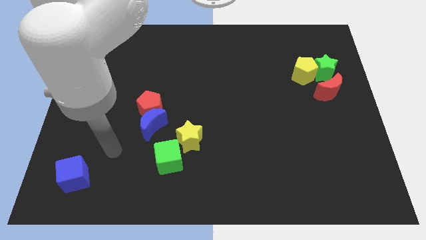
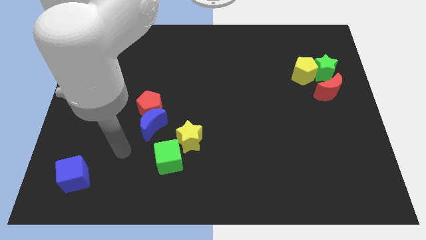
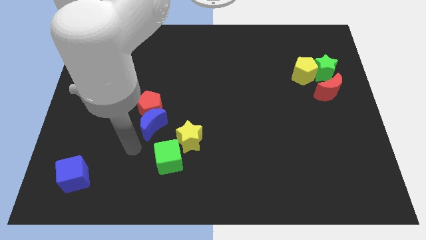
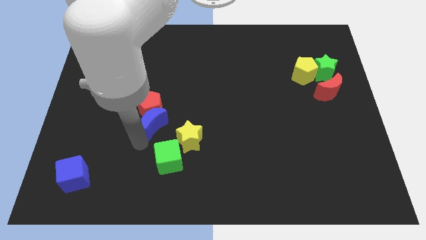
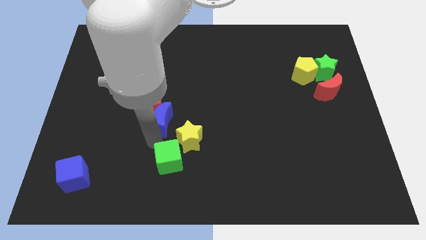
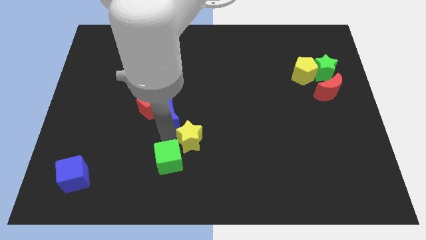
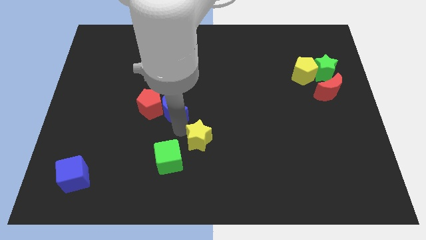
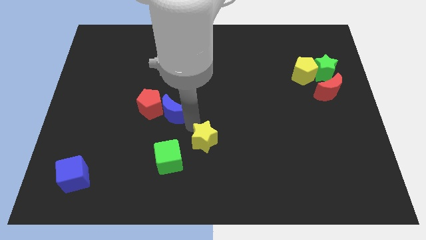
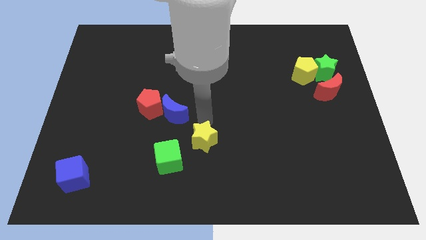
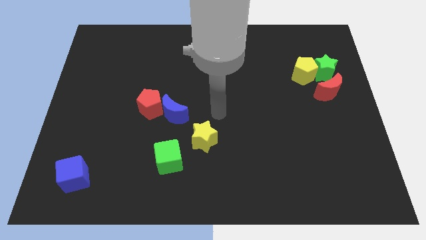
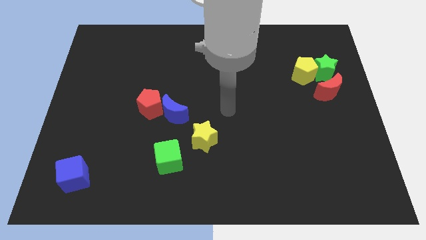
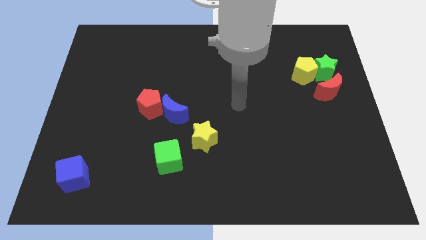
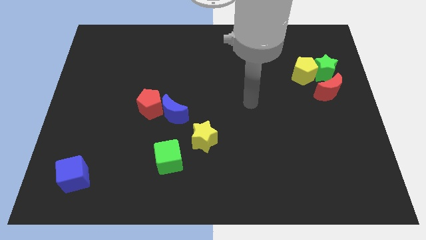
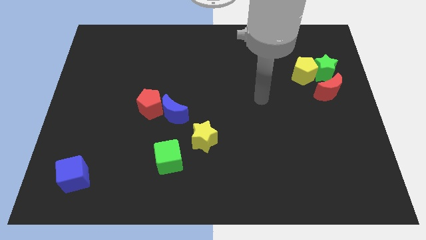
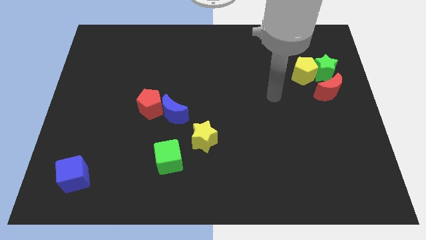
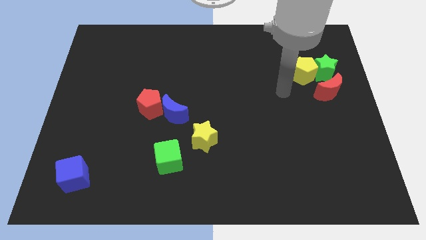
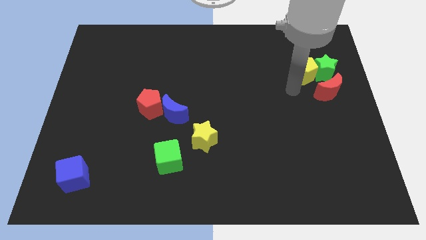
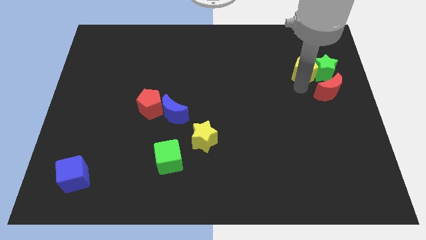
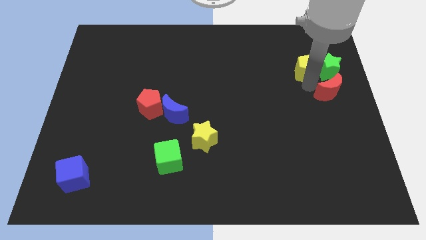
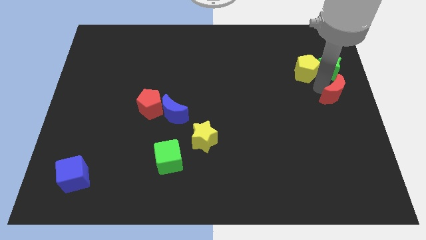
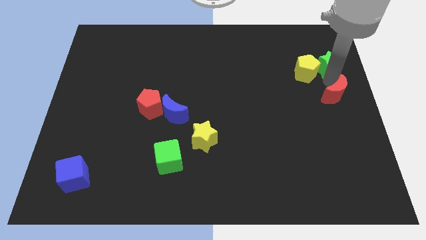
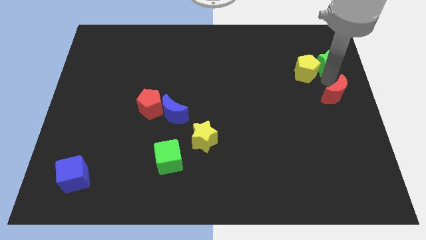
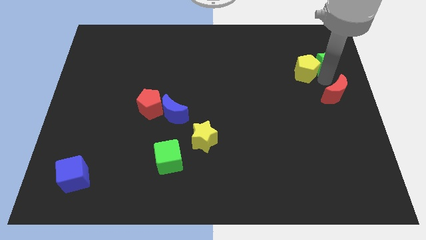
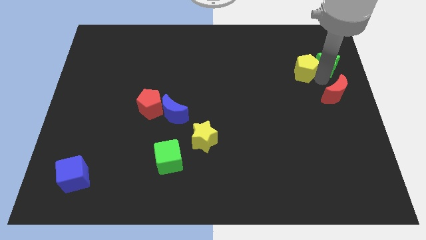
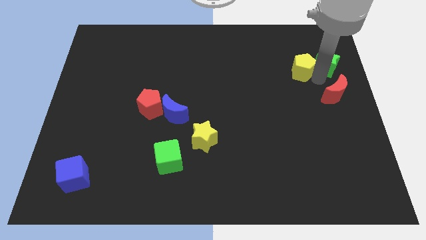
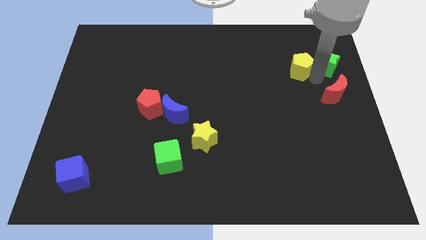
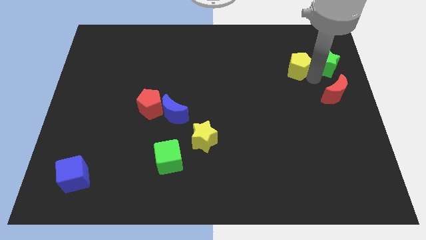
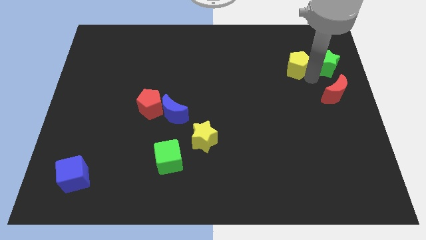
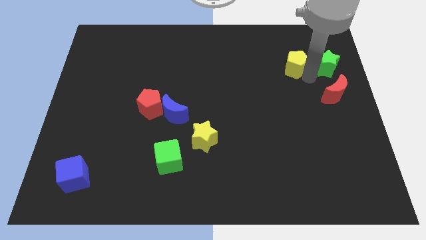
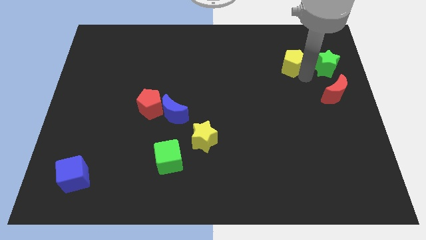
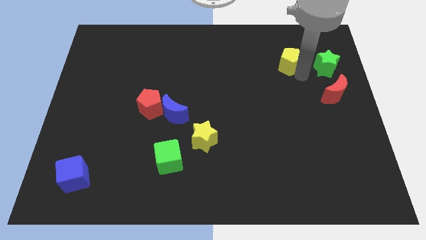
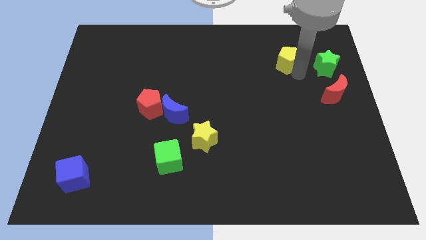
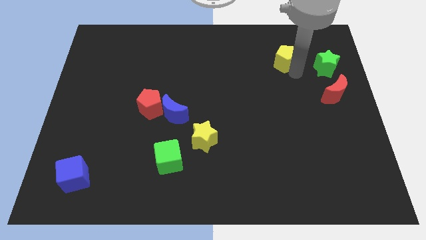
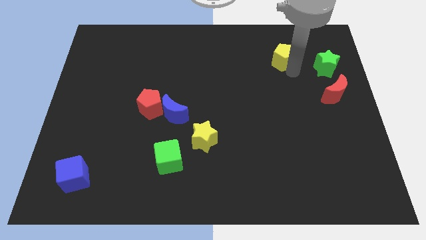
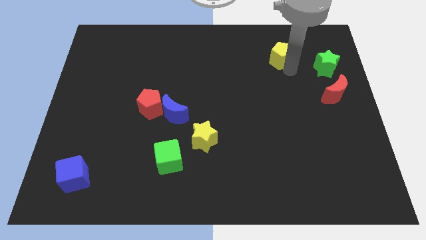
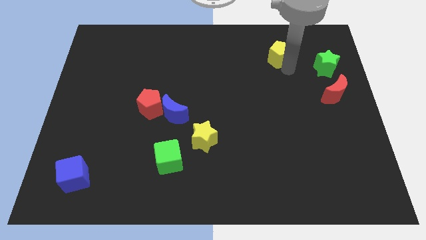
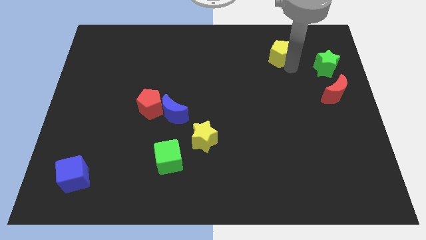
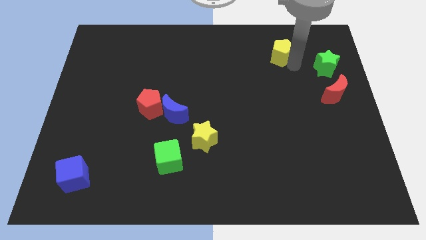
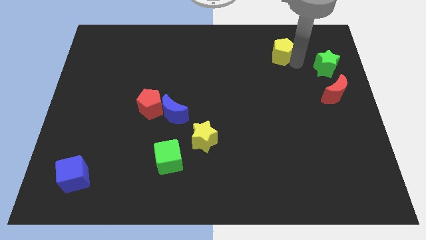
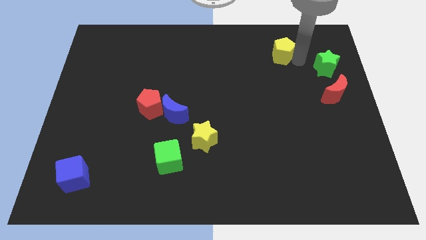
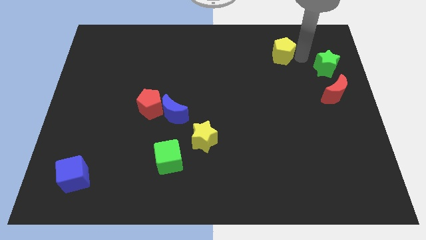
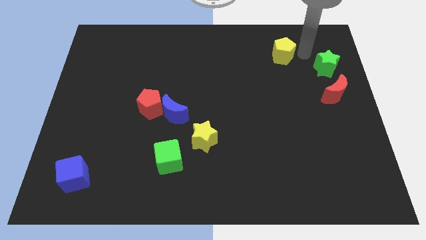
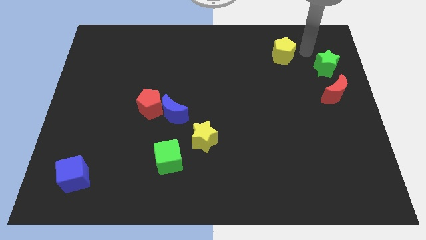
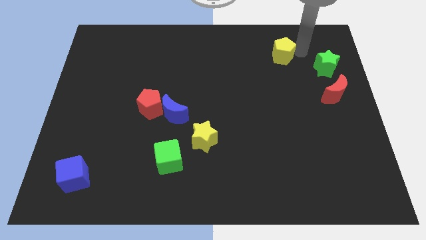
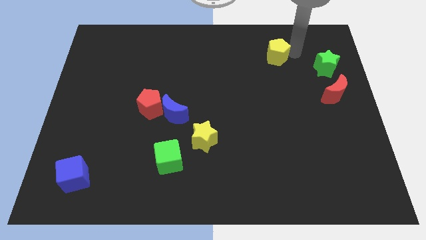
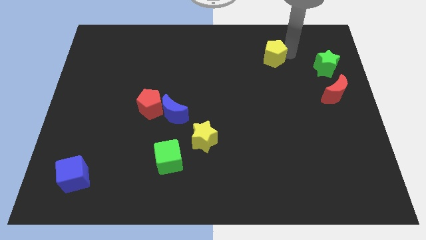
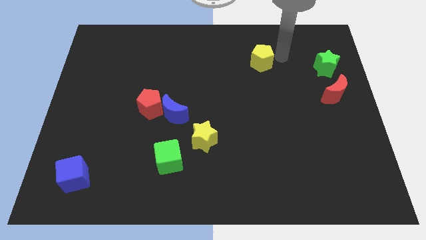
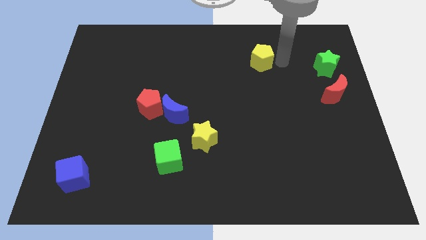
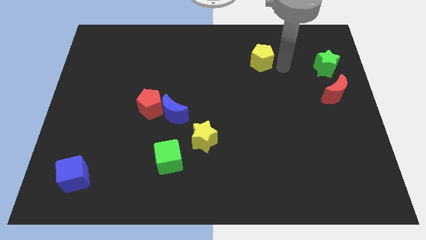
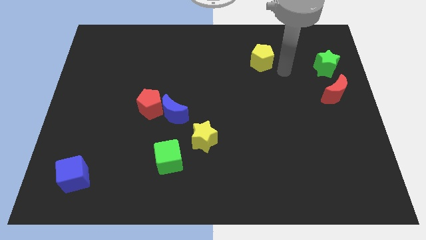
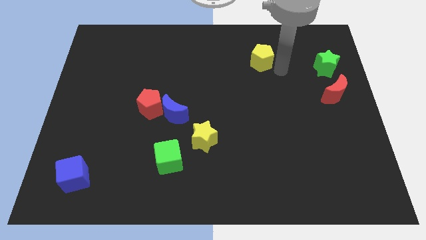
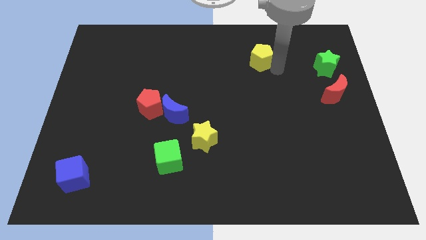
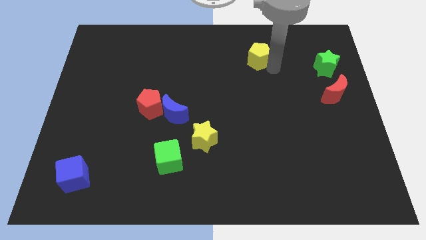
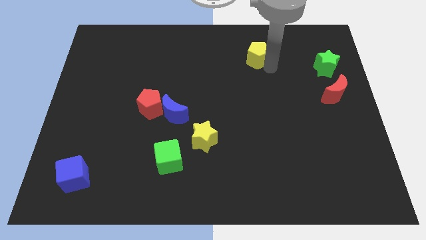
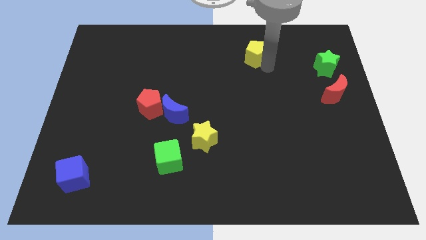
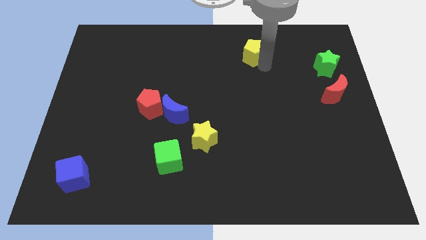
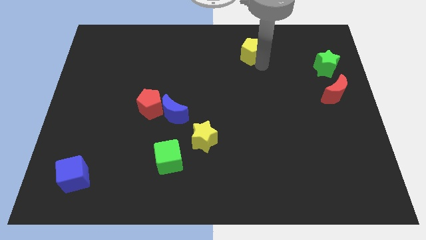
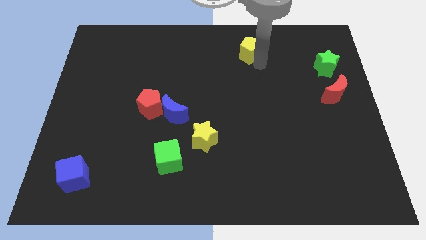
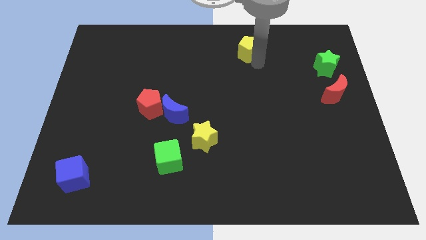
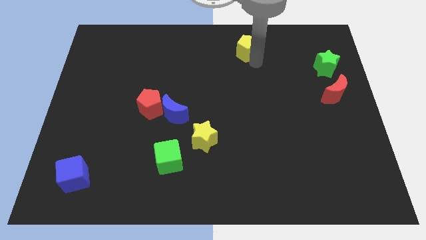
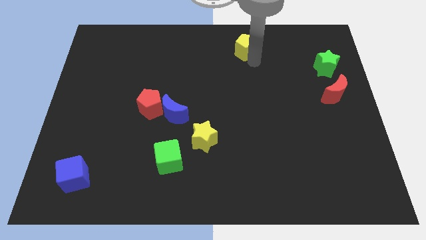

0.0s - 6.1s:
push the yellow pentagon to the top
